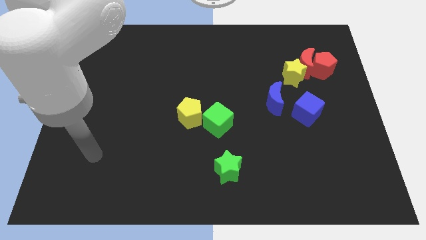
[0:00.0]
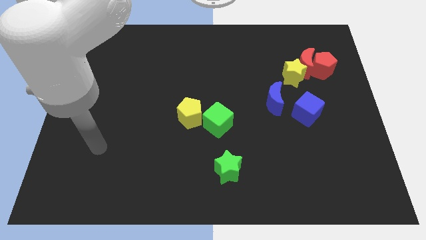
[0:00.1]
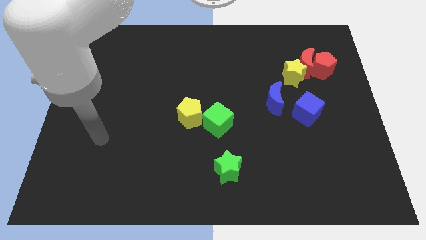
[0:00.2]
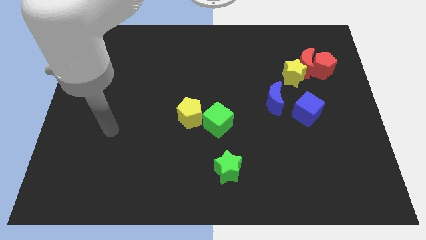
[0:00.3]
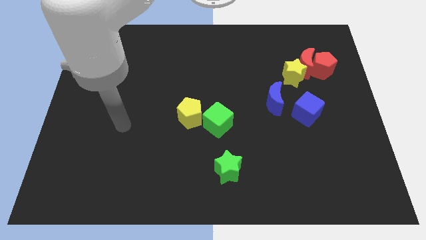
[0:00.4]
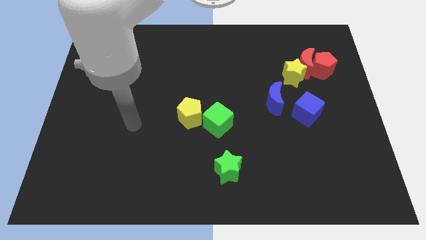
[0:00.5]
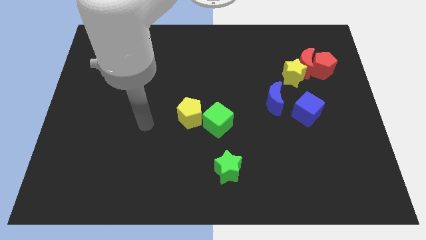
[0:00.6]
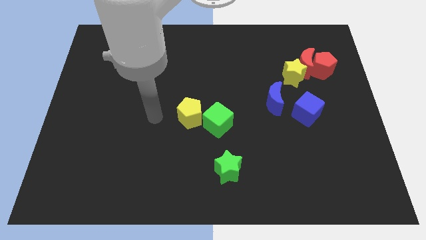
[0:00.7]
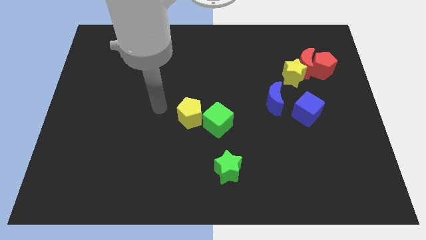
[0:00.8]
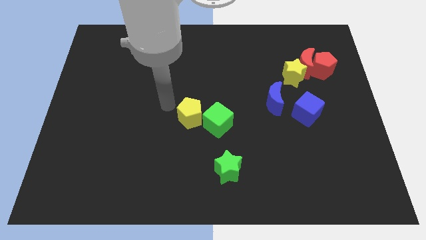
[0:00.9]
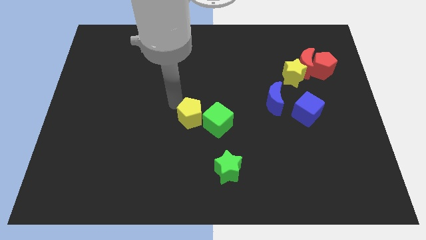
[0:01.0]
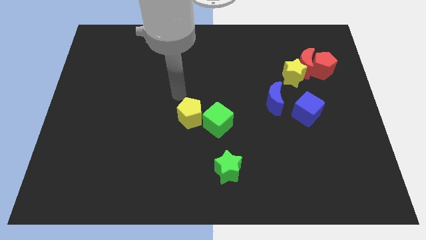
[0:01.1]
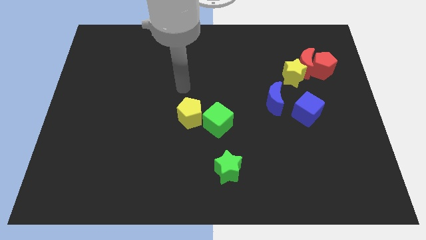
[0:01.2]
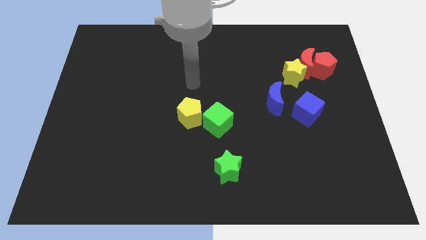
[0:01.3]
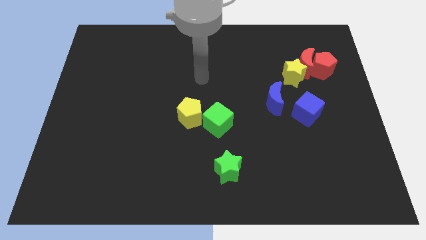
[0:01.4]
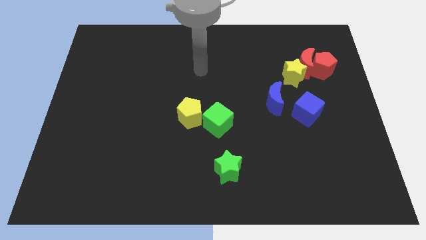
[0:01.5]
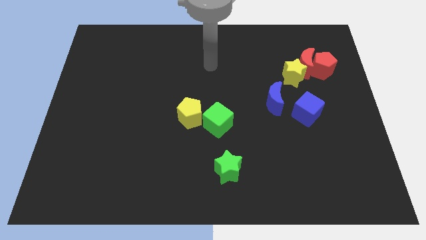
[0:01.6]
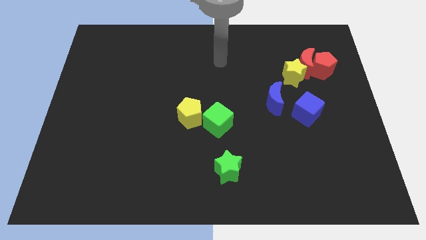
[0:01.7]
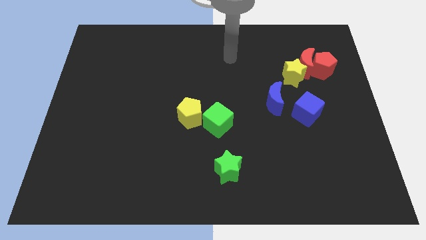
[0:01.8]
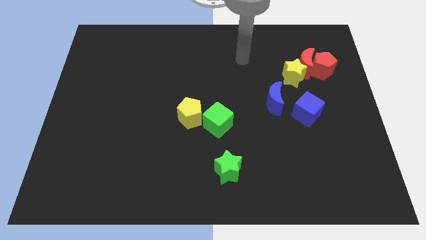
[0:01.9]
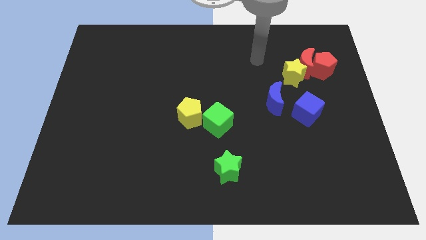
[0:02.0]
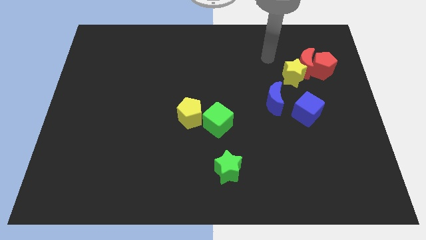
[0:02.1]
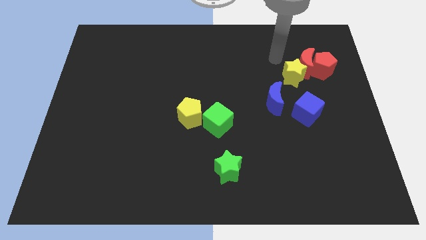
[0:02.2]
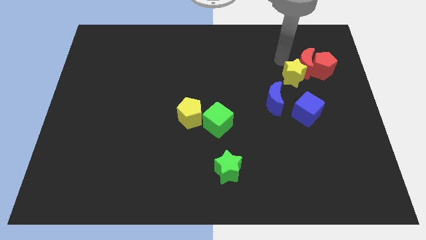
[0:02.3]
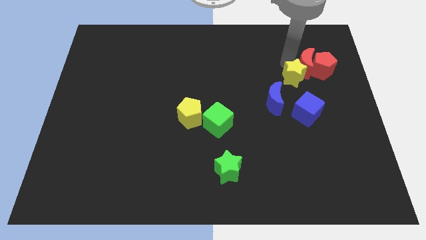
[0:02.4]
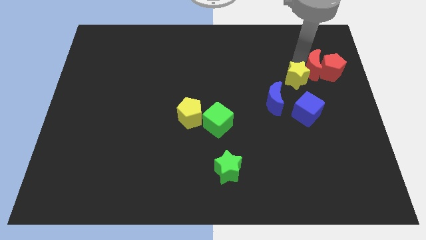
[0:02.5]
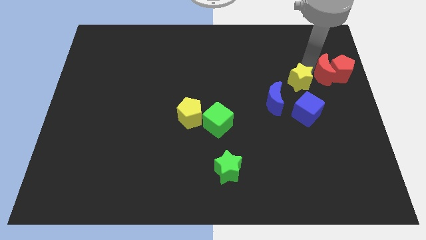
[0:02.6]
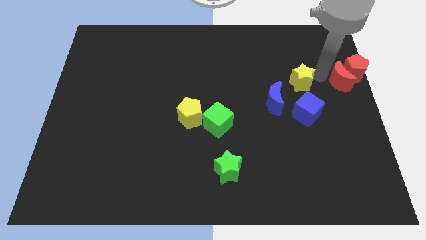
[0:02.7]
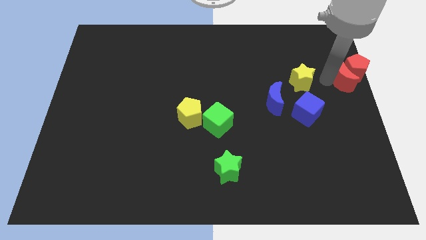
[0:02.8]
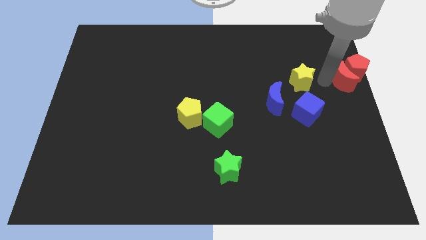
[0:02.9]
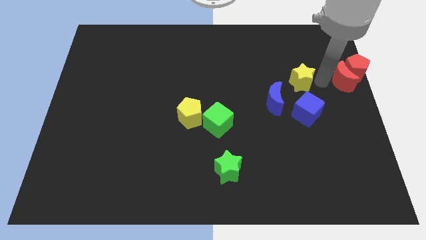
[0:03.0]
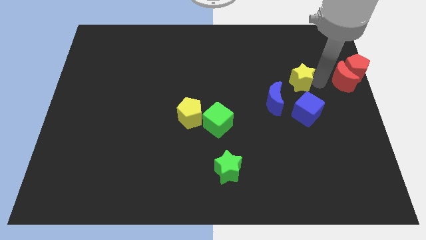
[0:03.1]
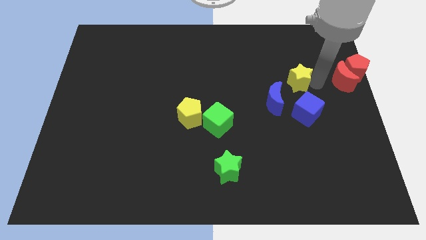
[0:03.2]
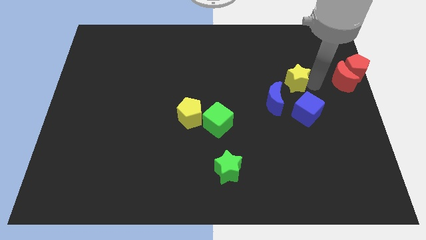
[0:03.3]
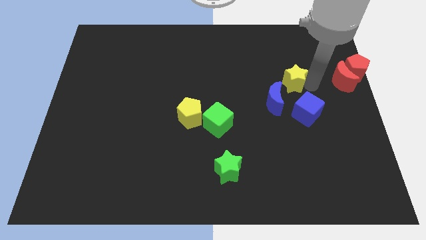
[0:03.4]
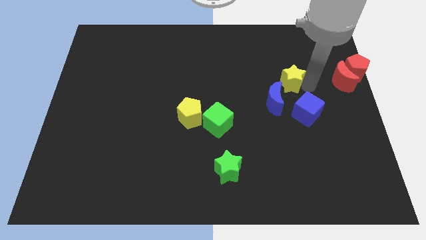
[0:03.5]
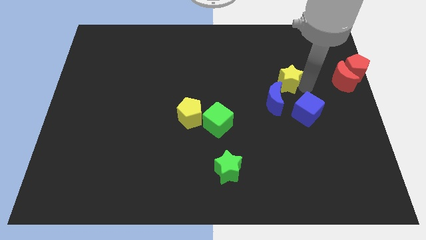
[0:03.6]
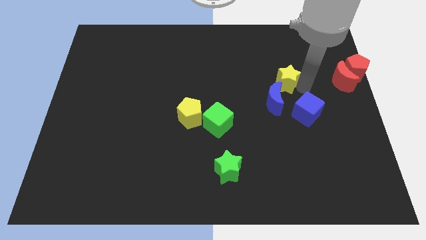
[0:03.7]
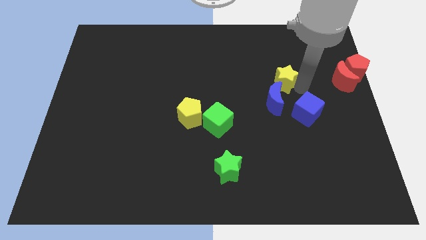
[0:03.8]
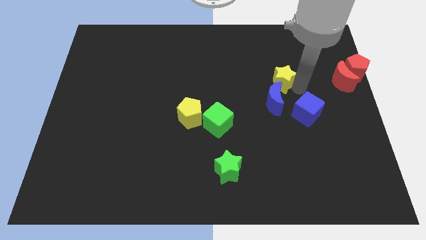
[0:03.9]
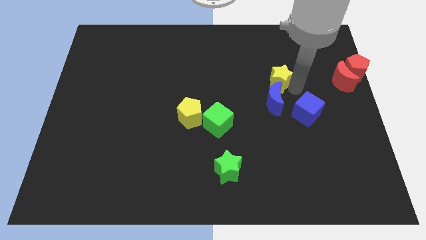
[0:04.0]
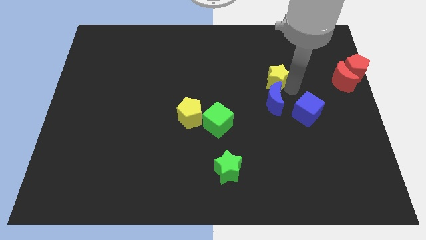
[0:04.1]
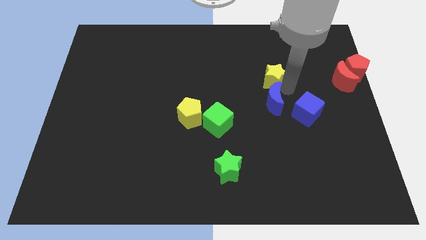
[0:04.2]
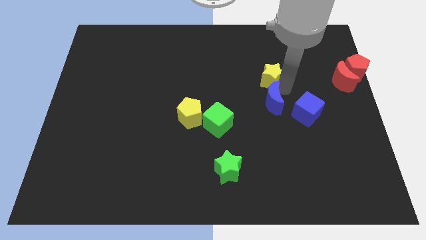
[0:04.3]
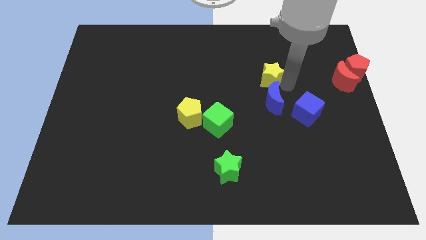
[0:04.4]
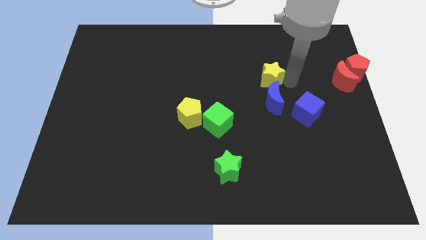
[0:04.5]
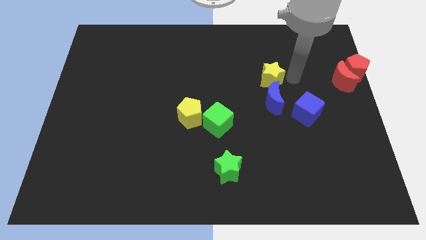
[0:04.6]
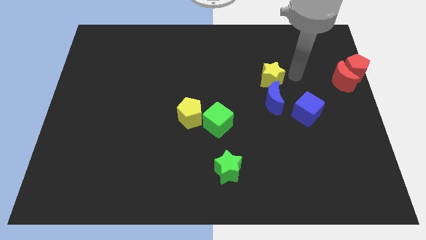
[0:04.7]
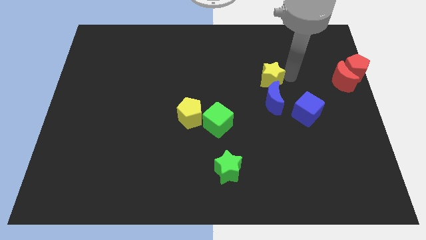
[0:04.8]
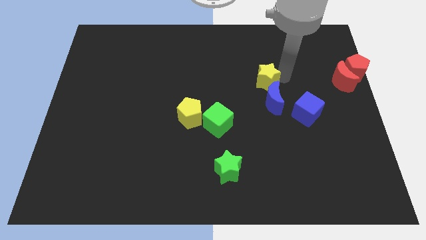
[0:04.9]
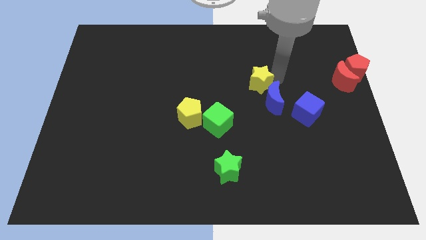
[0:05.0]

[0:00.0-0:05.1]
slide the yellow star to the middle

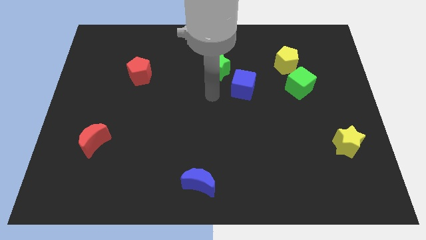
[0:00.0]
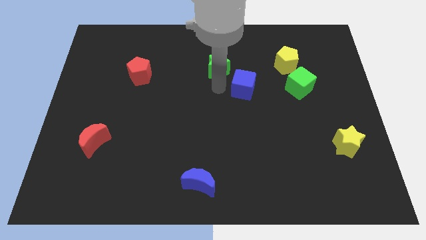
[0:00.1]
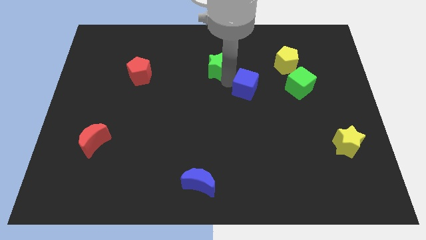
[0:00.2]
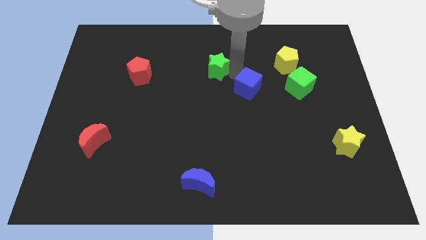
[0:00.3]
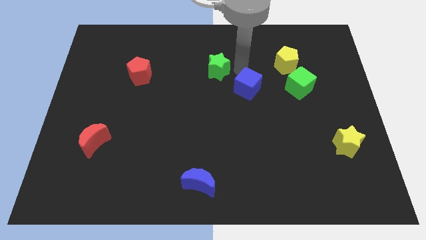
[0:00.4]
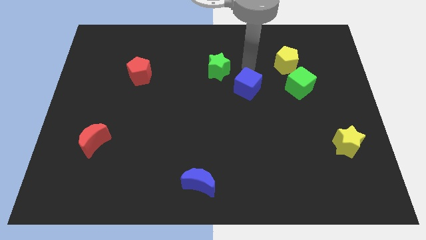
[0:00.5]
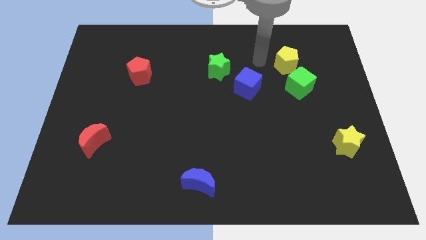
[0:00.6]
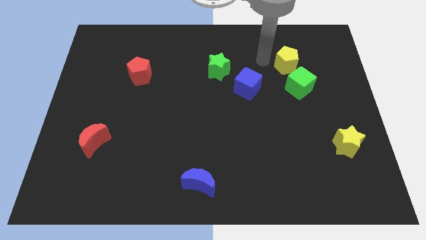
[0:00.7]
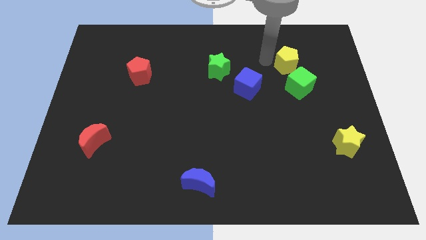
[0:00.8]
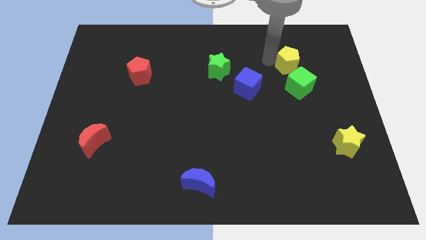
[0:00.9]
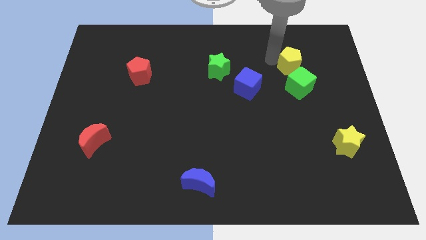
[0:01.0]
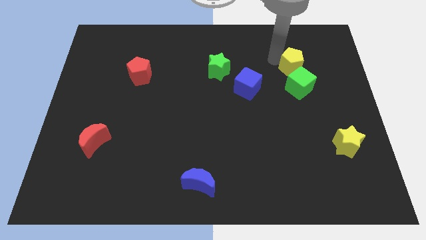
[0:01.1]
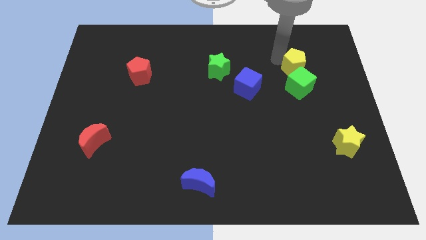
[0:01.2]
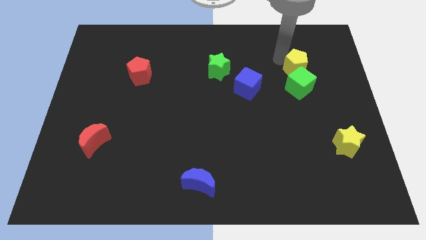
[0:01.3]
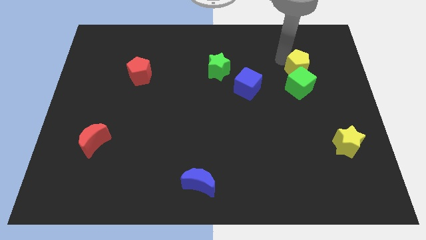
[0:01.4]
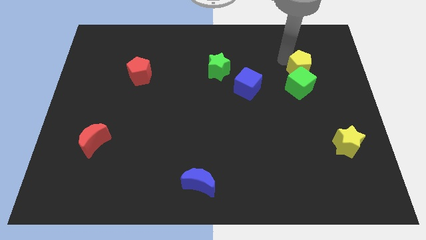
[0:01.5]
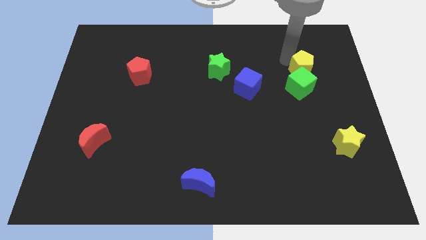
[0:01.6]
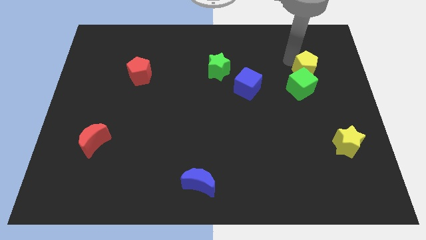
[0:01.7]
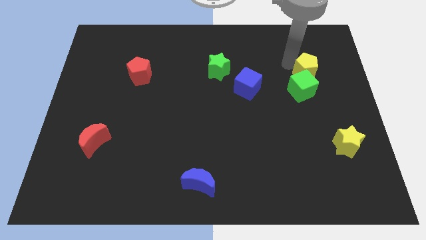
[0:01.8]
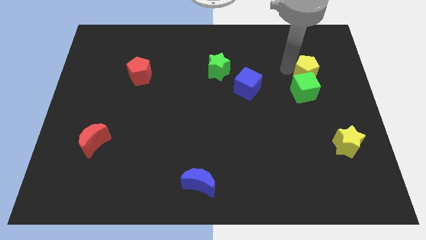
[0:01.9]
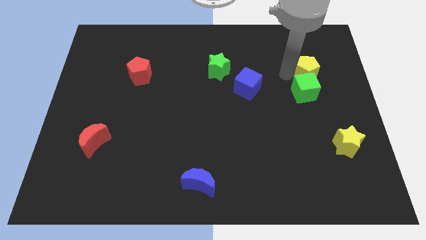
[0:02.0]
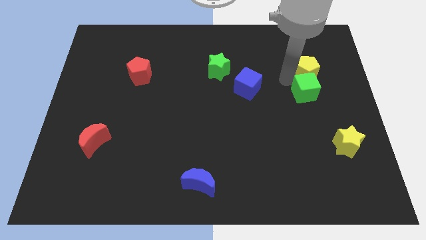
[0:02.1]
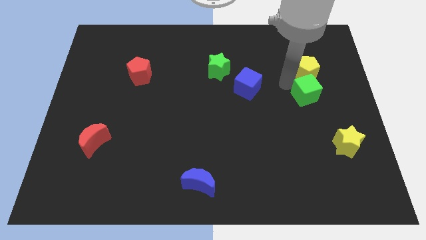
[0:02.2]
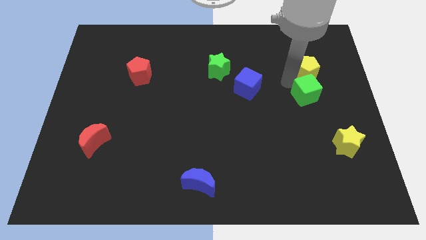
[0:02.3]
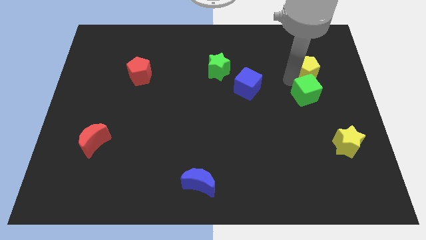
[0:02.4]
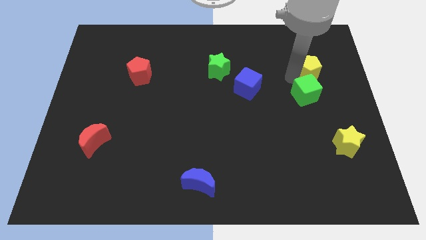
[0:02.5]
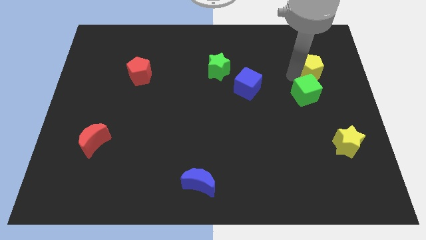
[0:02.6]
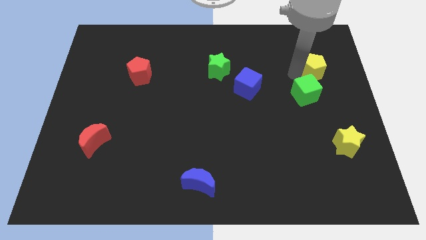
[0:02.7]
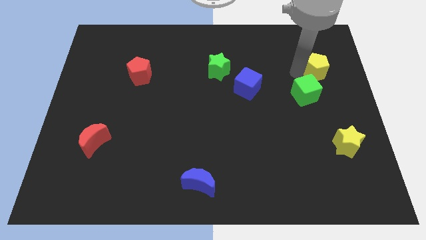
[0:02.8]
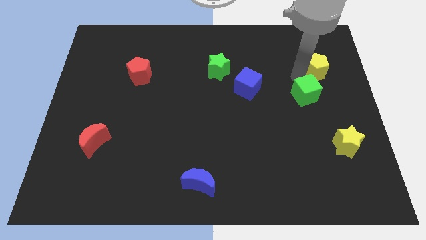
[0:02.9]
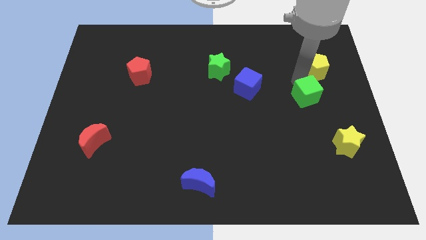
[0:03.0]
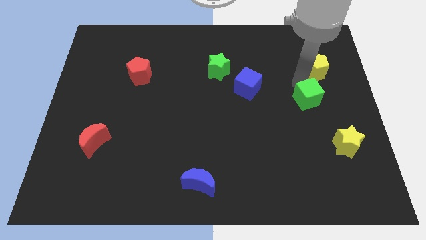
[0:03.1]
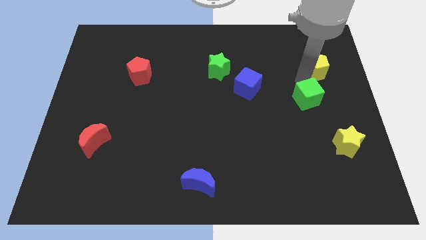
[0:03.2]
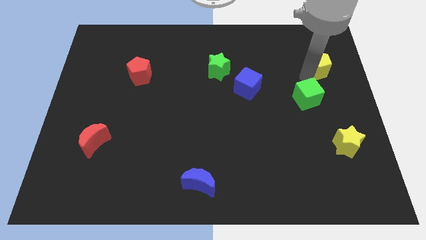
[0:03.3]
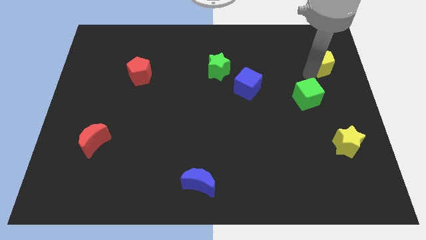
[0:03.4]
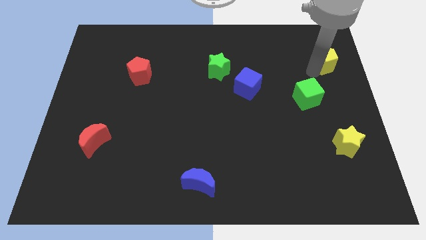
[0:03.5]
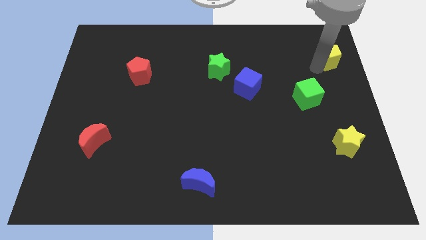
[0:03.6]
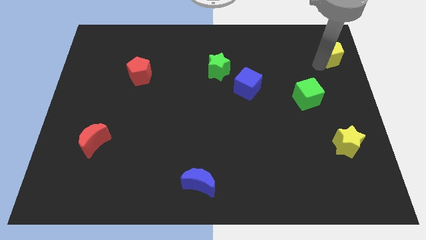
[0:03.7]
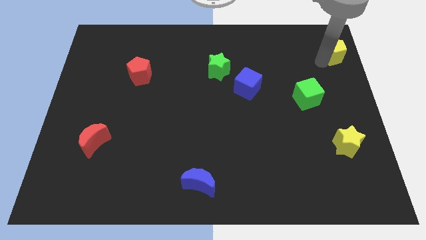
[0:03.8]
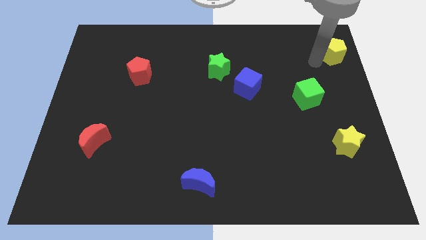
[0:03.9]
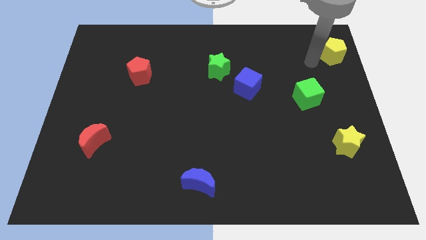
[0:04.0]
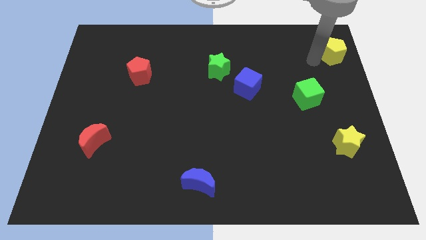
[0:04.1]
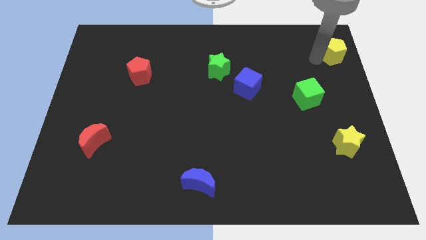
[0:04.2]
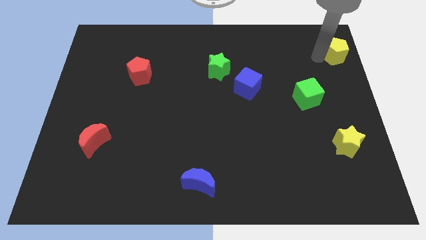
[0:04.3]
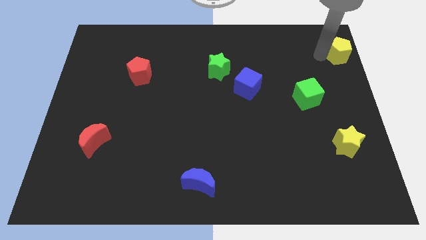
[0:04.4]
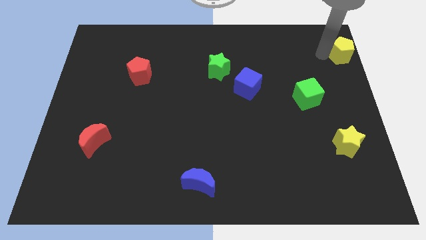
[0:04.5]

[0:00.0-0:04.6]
move the yellow pentagon to the upper right corner
